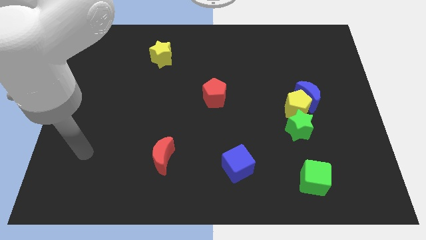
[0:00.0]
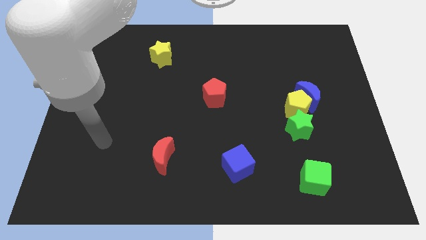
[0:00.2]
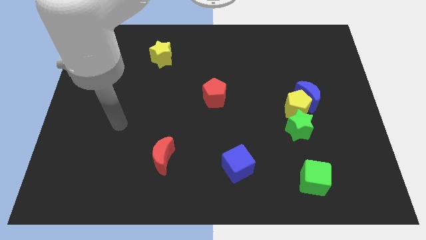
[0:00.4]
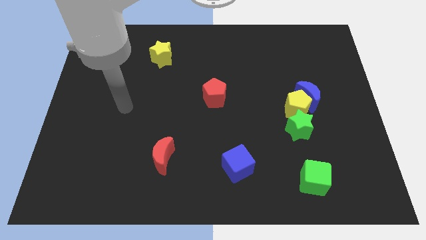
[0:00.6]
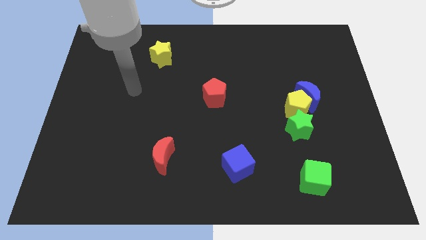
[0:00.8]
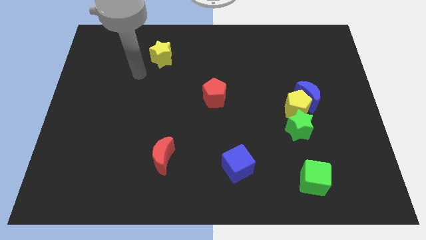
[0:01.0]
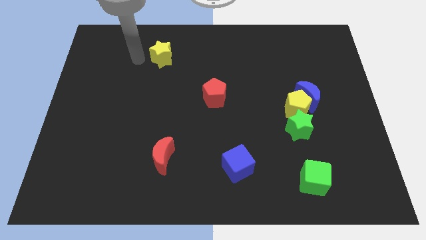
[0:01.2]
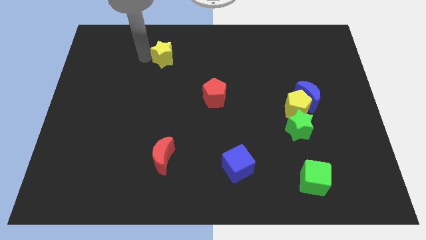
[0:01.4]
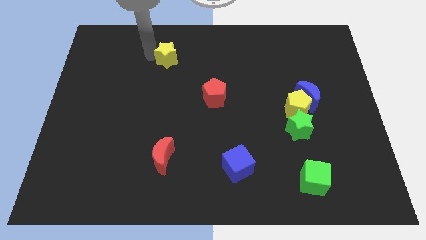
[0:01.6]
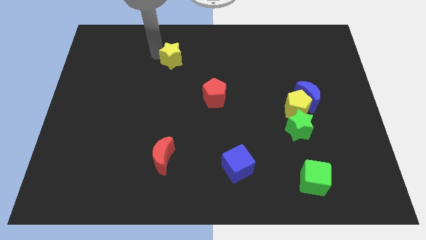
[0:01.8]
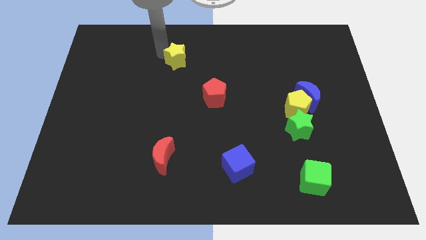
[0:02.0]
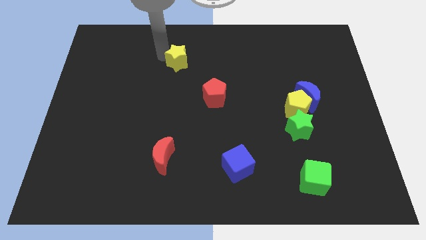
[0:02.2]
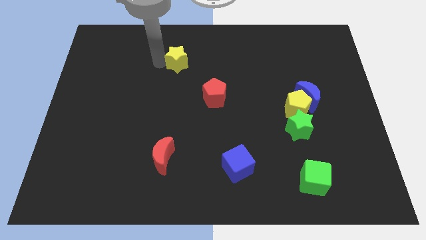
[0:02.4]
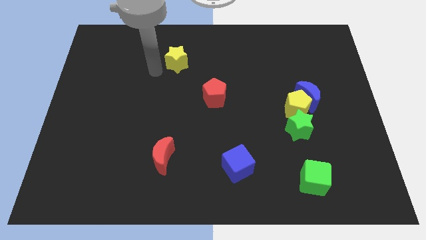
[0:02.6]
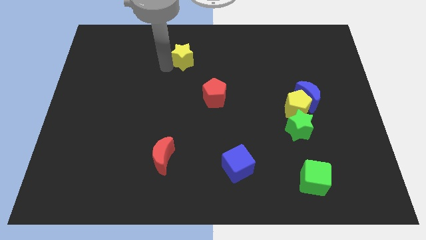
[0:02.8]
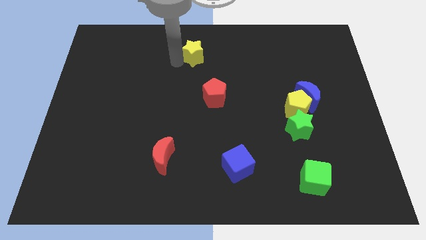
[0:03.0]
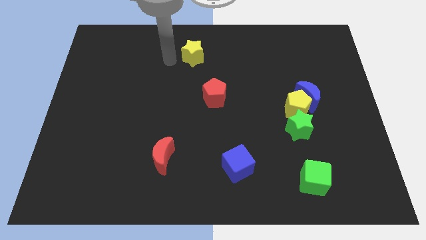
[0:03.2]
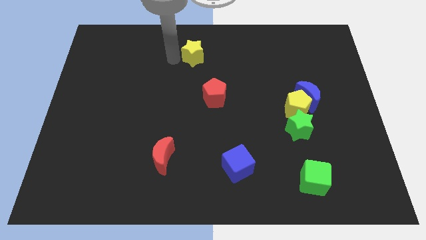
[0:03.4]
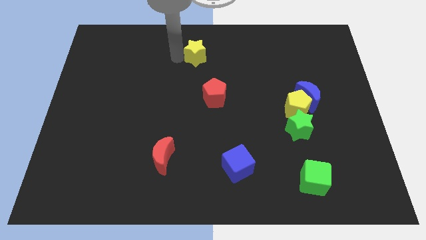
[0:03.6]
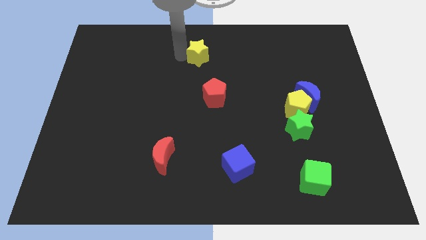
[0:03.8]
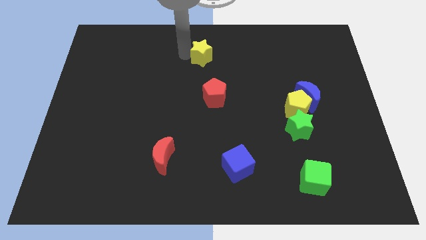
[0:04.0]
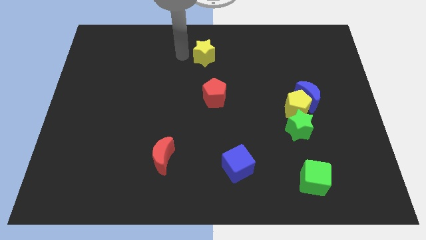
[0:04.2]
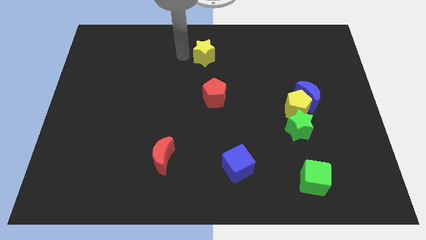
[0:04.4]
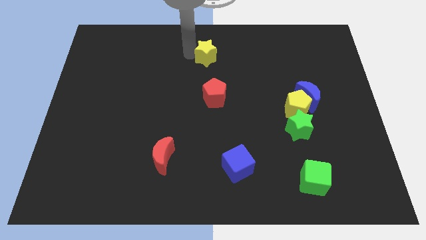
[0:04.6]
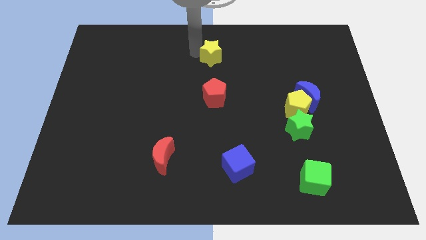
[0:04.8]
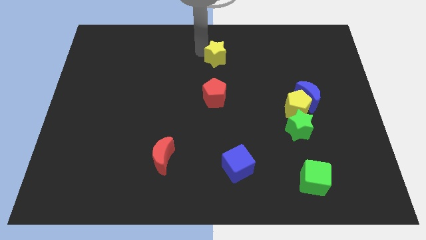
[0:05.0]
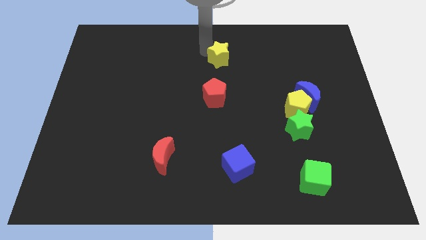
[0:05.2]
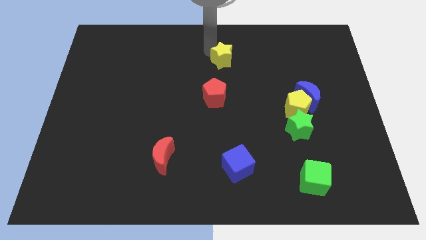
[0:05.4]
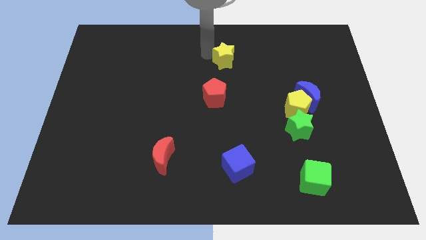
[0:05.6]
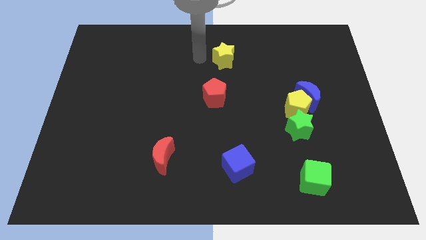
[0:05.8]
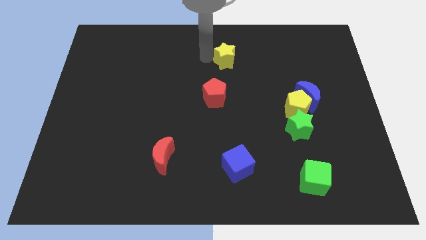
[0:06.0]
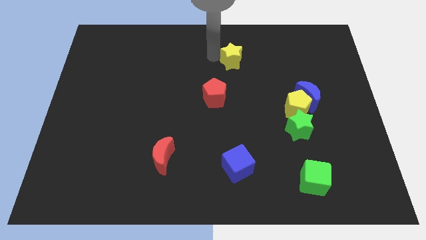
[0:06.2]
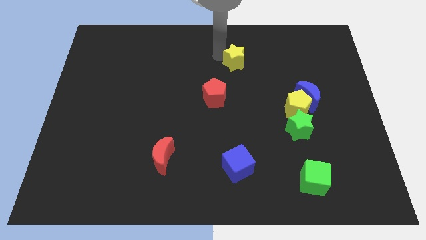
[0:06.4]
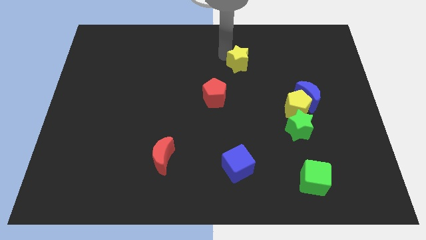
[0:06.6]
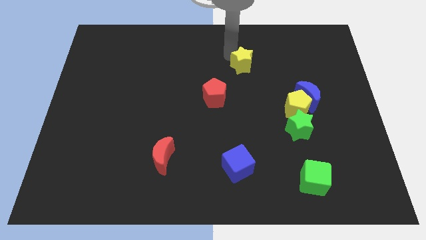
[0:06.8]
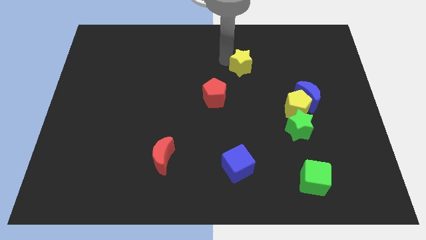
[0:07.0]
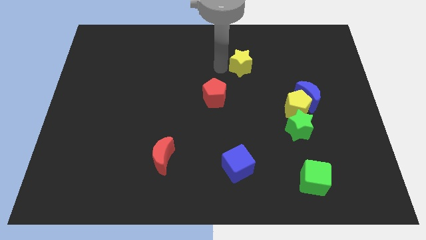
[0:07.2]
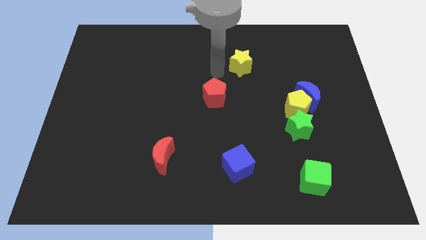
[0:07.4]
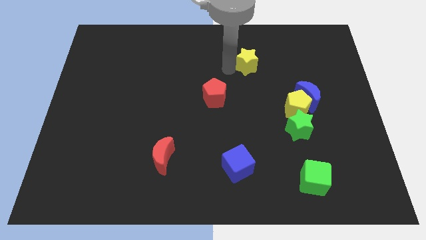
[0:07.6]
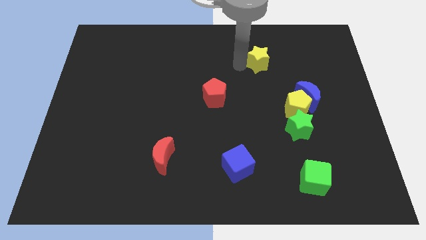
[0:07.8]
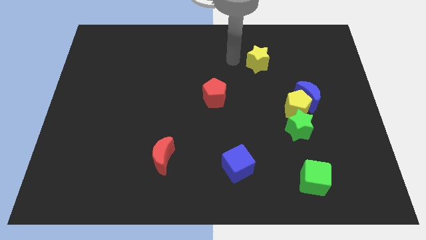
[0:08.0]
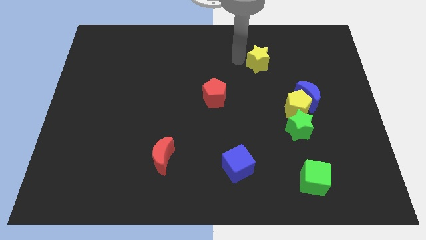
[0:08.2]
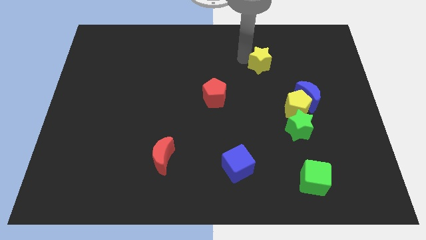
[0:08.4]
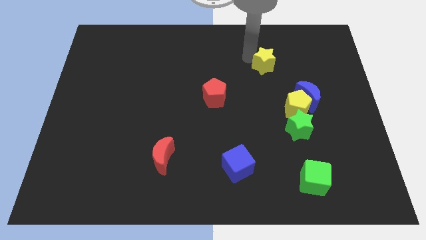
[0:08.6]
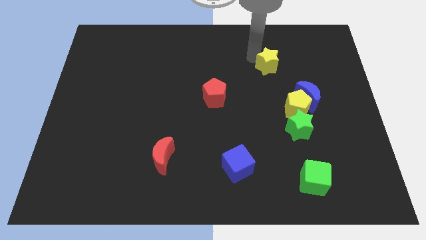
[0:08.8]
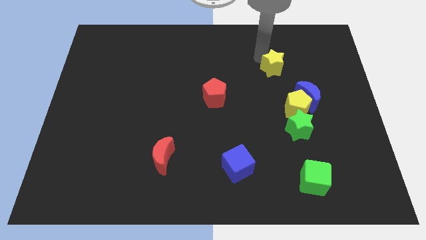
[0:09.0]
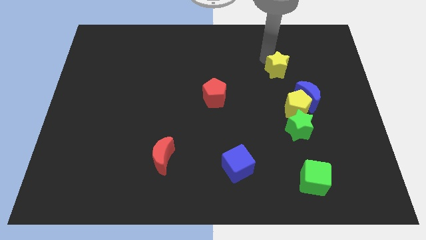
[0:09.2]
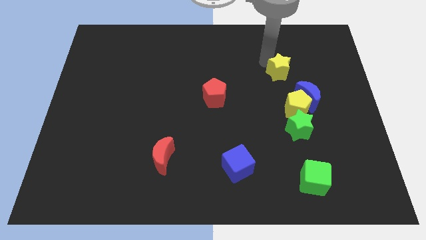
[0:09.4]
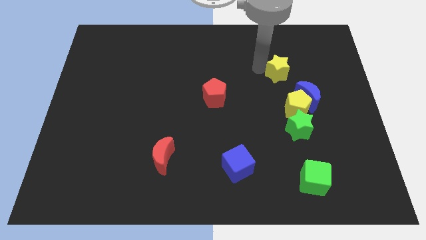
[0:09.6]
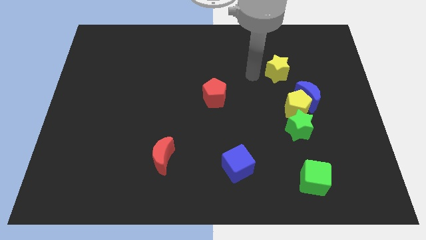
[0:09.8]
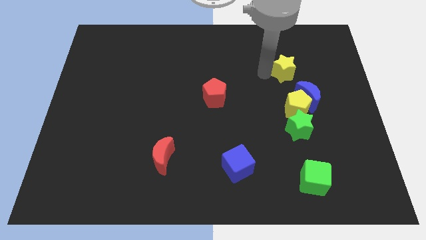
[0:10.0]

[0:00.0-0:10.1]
slide the yellow star to the top side of the blue moon
